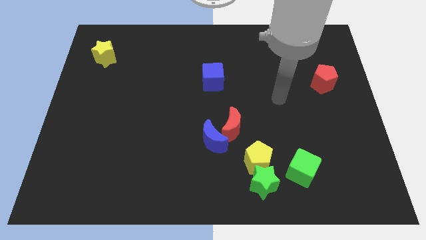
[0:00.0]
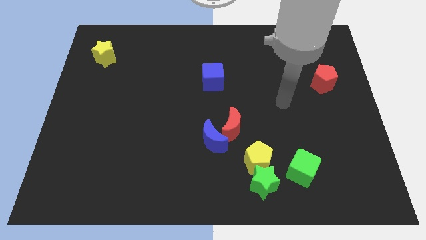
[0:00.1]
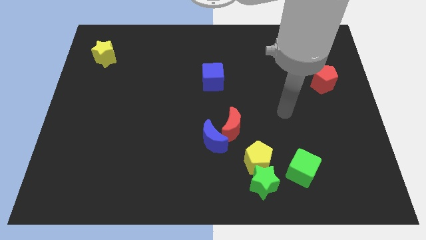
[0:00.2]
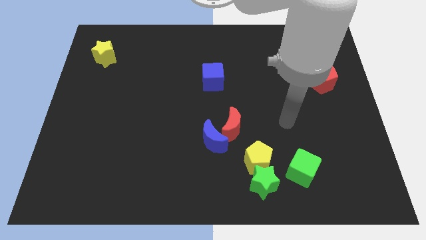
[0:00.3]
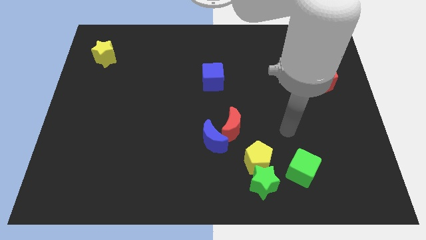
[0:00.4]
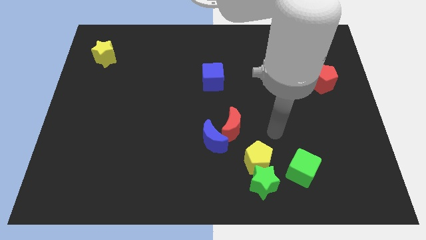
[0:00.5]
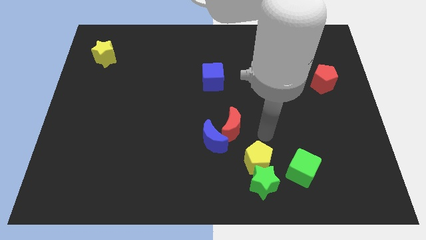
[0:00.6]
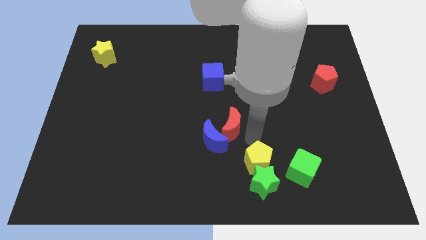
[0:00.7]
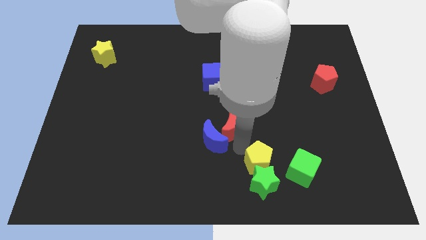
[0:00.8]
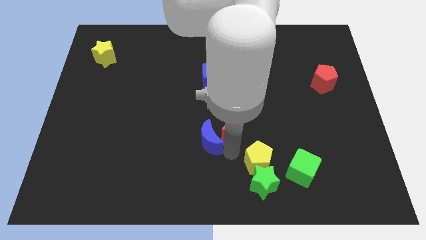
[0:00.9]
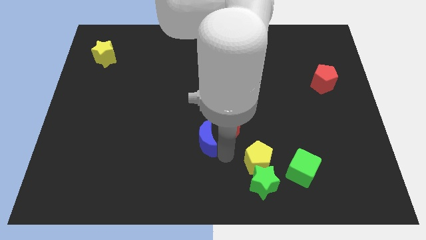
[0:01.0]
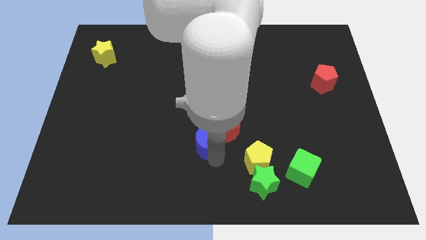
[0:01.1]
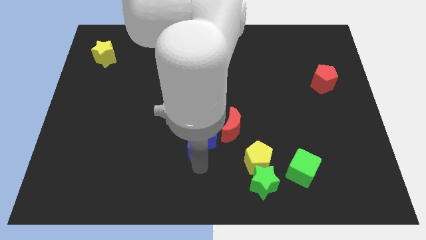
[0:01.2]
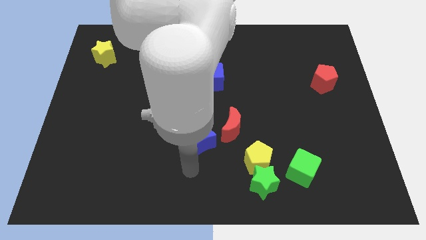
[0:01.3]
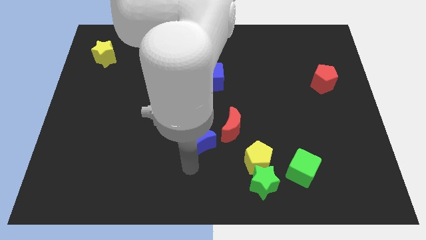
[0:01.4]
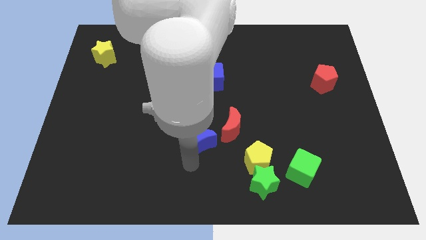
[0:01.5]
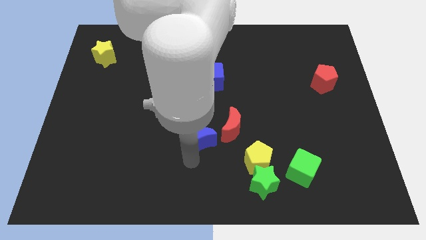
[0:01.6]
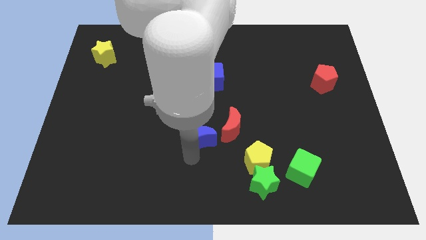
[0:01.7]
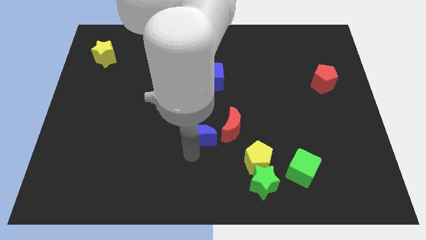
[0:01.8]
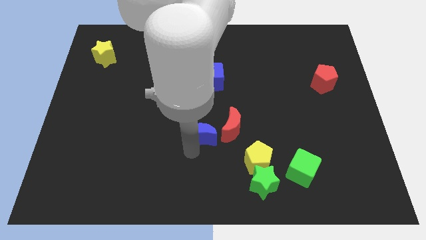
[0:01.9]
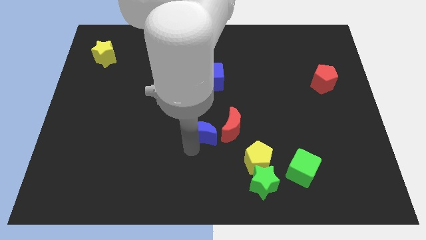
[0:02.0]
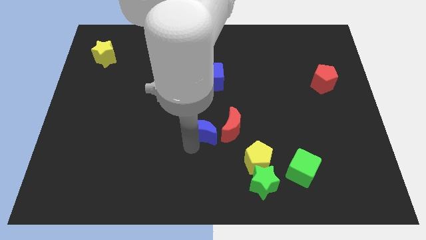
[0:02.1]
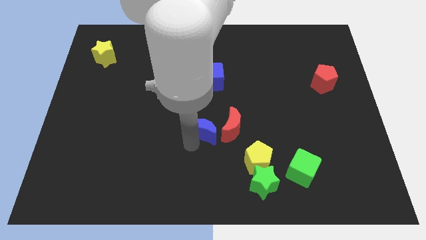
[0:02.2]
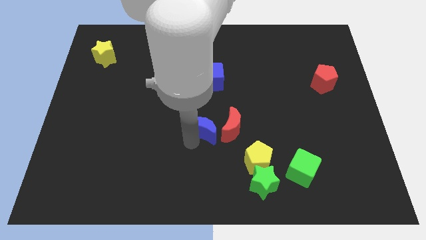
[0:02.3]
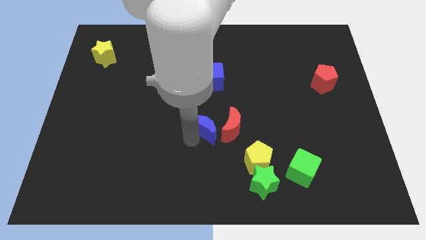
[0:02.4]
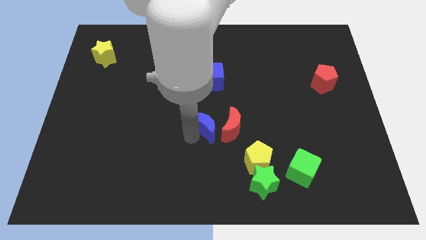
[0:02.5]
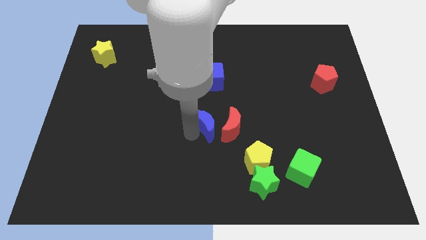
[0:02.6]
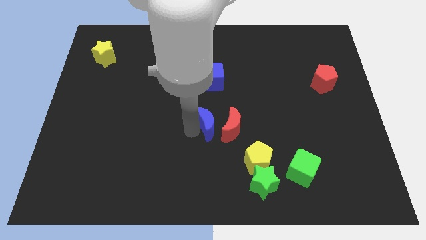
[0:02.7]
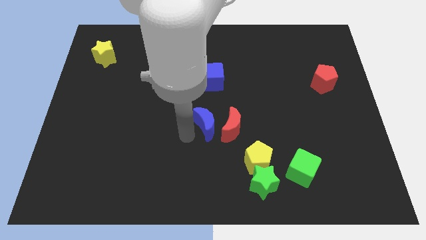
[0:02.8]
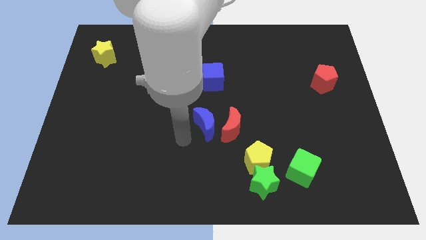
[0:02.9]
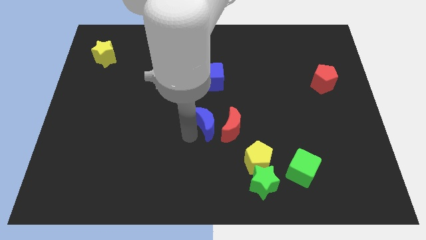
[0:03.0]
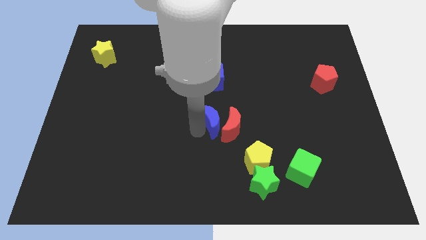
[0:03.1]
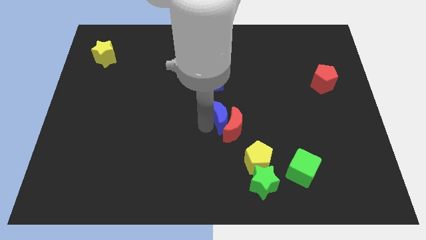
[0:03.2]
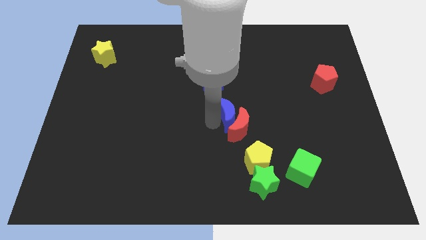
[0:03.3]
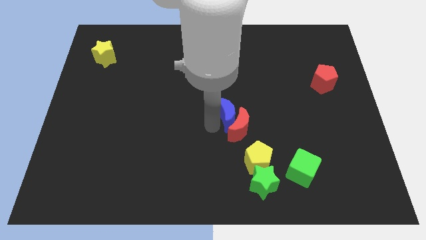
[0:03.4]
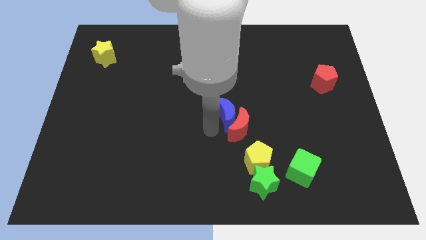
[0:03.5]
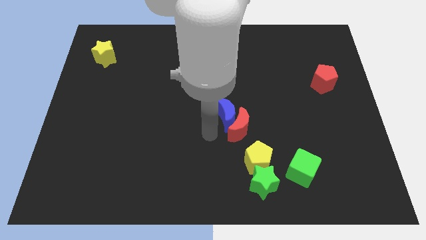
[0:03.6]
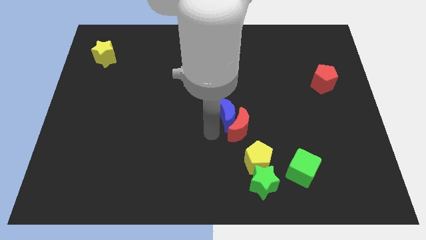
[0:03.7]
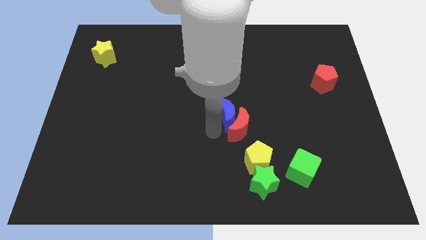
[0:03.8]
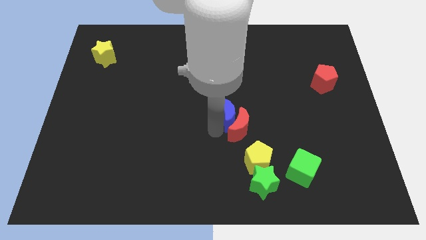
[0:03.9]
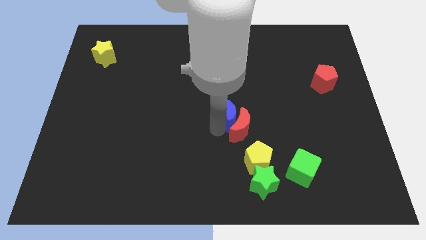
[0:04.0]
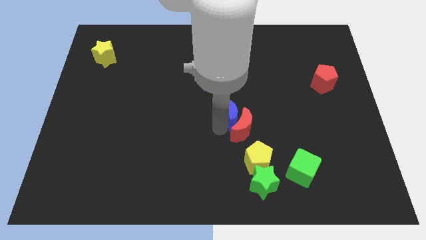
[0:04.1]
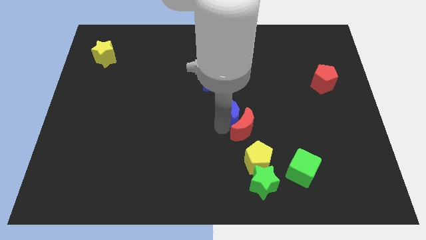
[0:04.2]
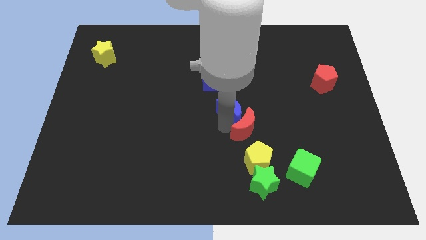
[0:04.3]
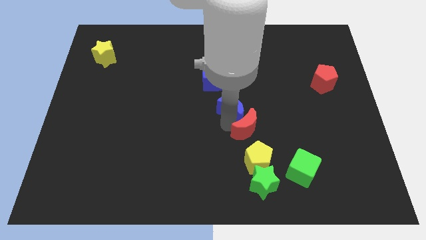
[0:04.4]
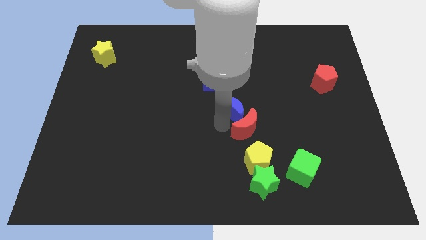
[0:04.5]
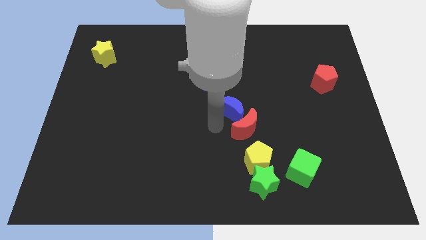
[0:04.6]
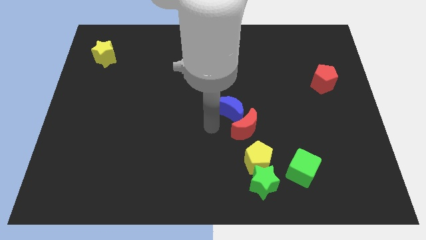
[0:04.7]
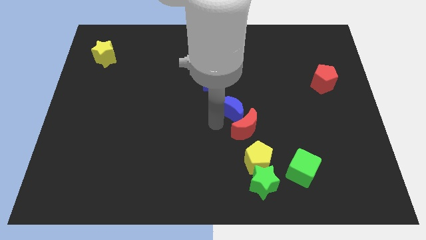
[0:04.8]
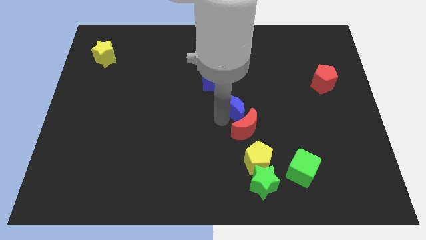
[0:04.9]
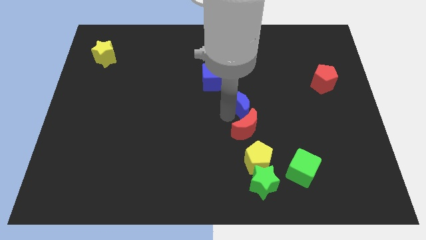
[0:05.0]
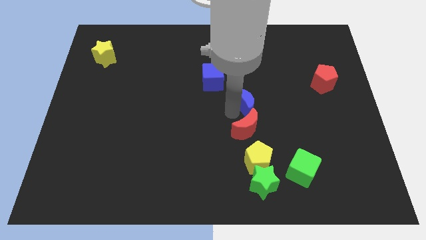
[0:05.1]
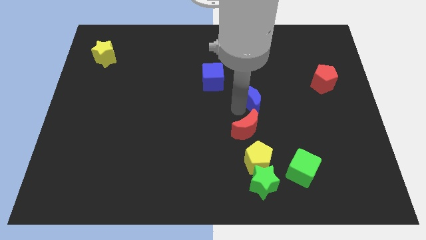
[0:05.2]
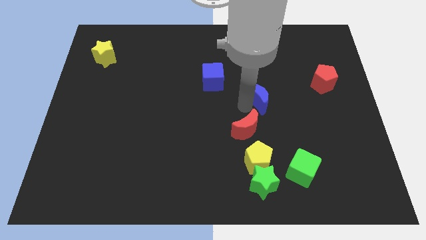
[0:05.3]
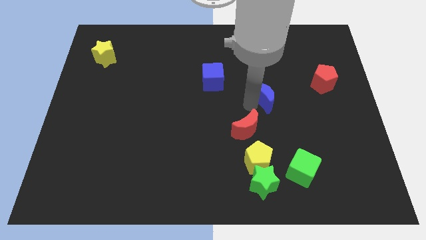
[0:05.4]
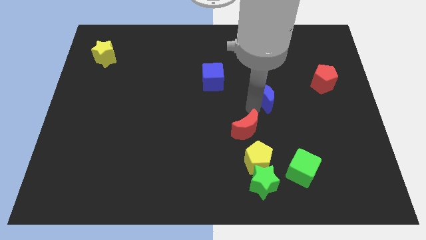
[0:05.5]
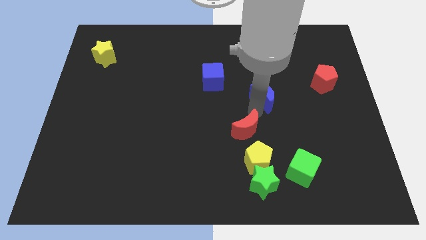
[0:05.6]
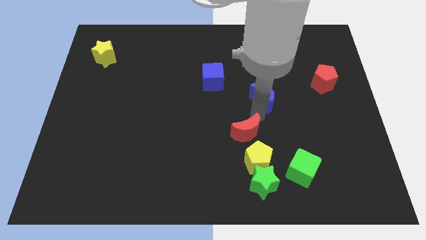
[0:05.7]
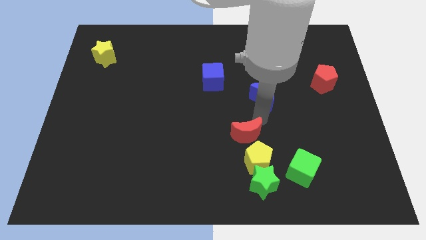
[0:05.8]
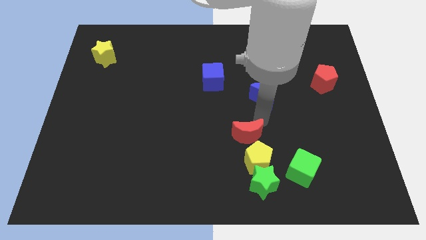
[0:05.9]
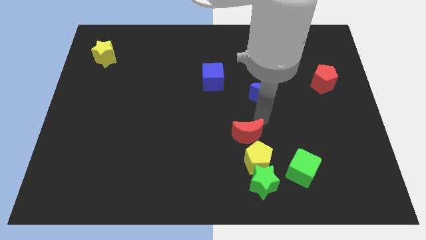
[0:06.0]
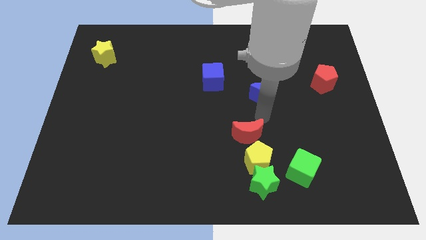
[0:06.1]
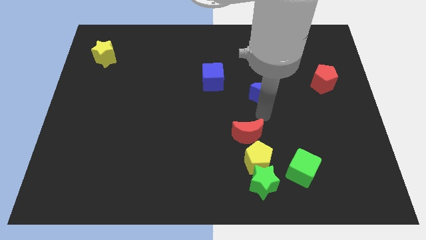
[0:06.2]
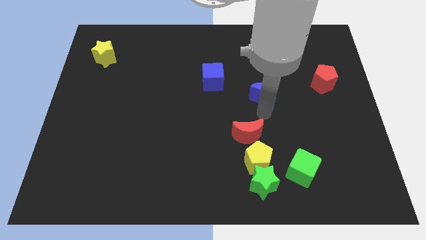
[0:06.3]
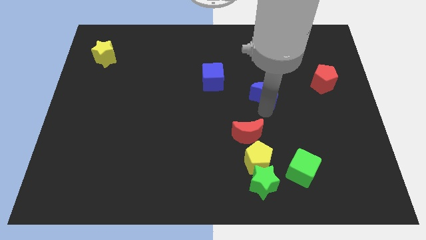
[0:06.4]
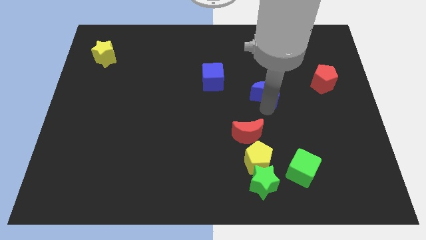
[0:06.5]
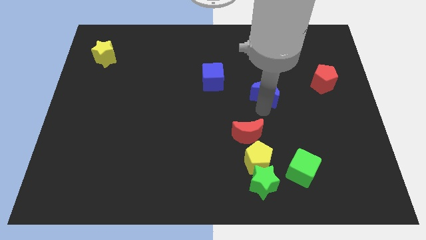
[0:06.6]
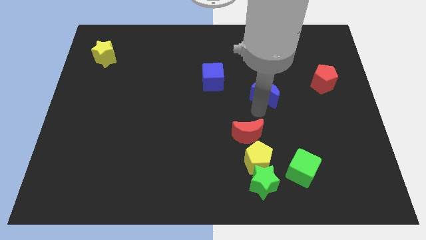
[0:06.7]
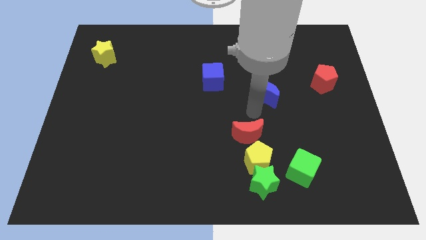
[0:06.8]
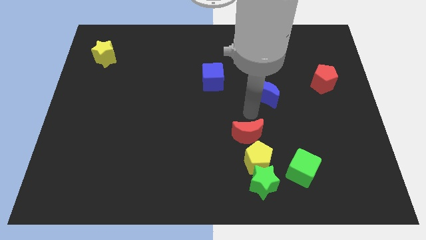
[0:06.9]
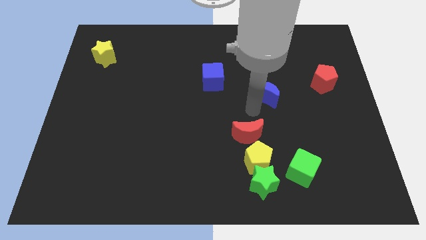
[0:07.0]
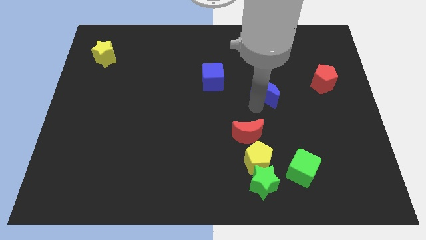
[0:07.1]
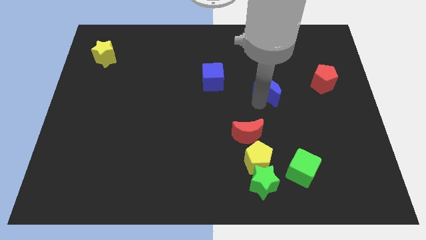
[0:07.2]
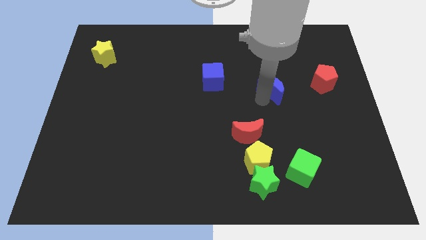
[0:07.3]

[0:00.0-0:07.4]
move the blue moon up and then to the right

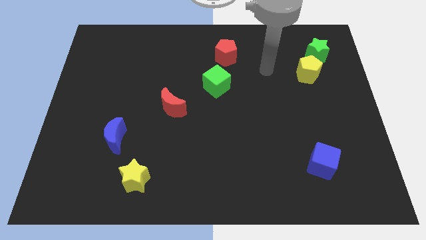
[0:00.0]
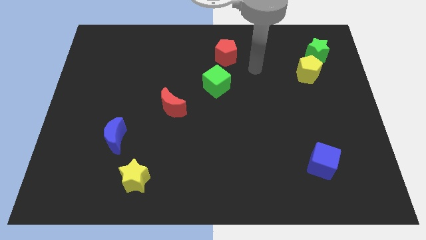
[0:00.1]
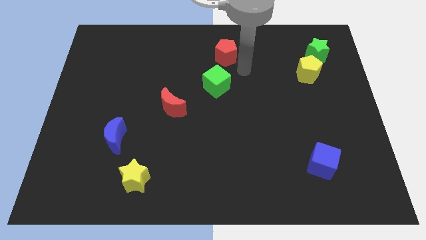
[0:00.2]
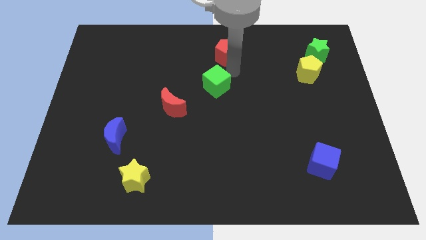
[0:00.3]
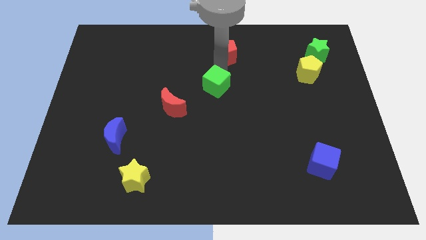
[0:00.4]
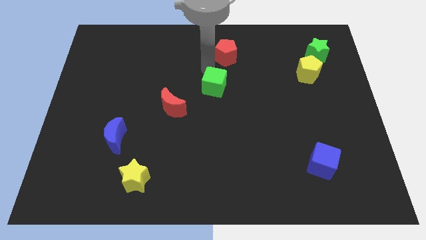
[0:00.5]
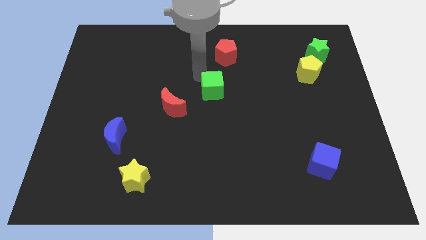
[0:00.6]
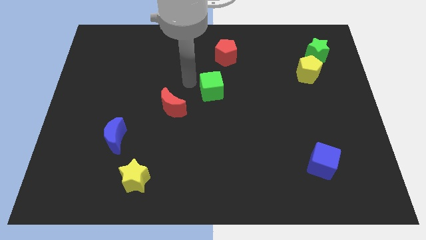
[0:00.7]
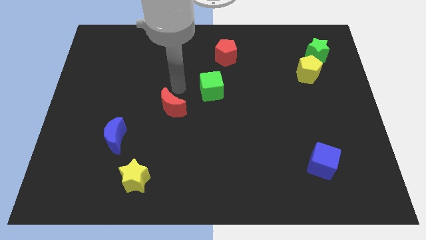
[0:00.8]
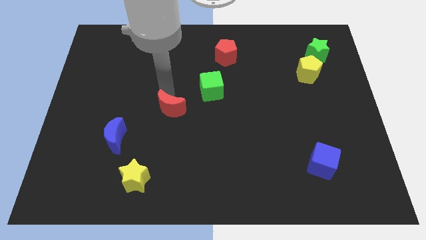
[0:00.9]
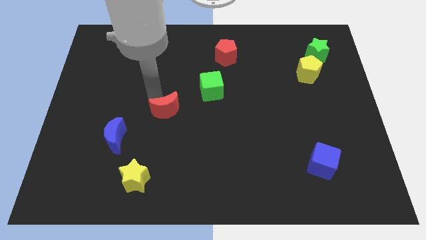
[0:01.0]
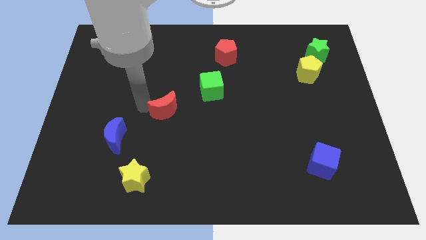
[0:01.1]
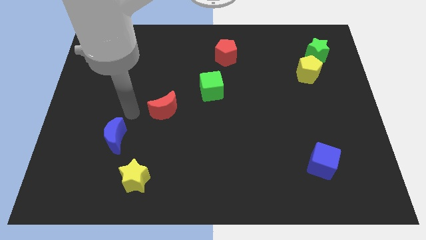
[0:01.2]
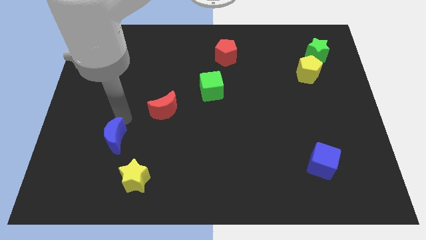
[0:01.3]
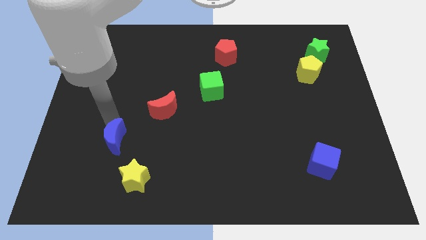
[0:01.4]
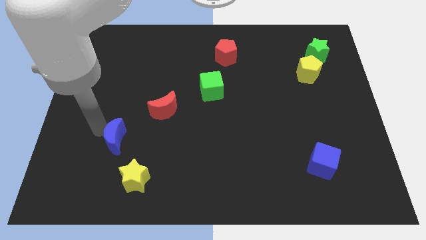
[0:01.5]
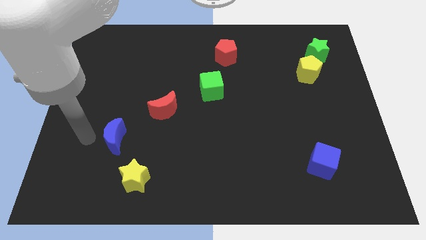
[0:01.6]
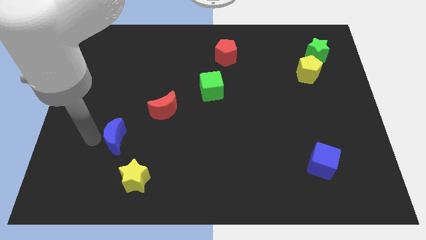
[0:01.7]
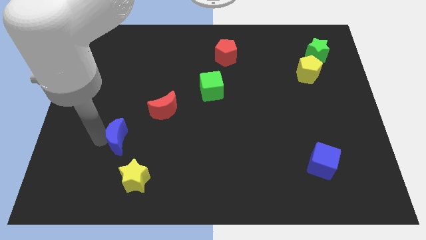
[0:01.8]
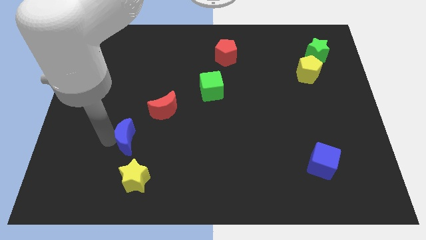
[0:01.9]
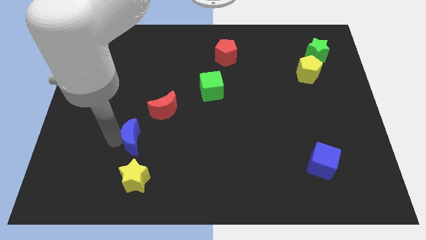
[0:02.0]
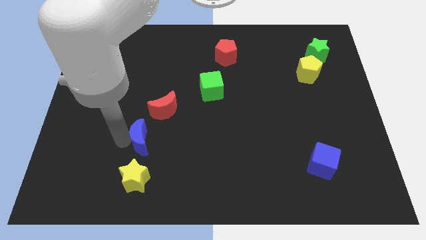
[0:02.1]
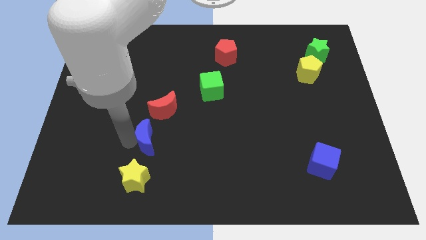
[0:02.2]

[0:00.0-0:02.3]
slightly slide the blue moon to the right
